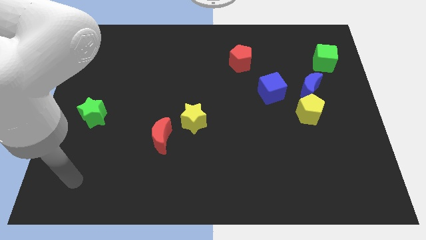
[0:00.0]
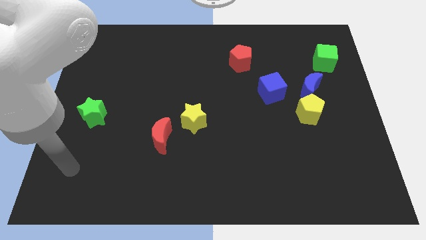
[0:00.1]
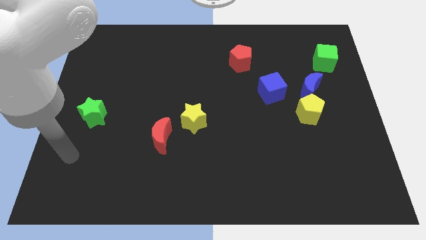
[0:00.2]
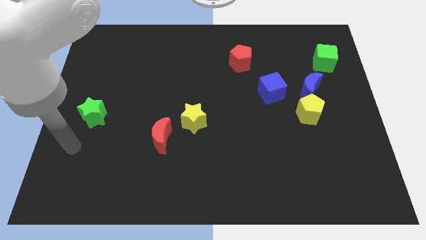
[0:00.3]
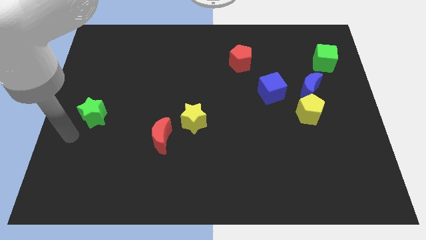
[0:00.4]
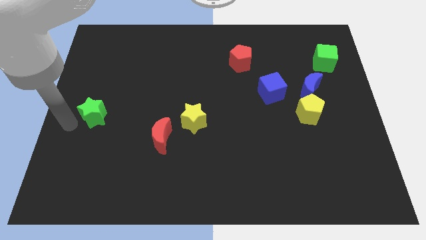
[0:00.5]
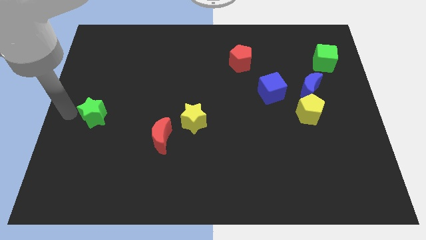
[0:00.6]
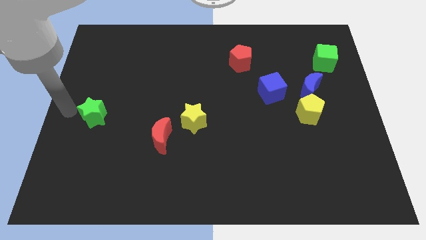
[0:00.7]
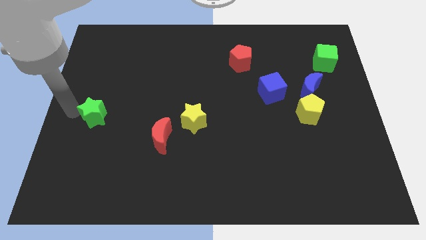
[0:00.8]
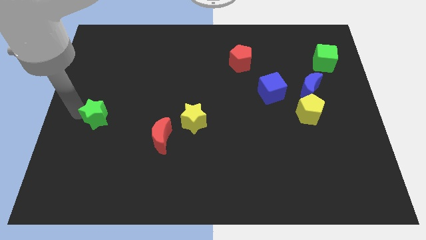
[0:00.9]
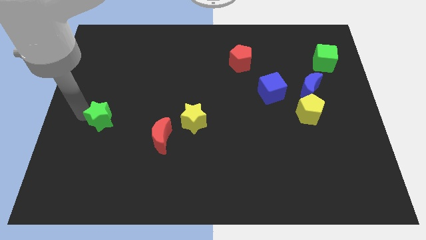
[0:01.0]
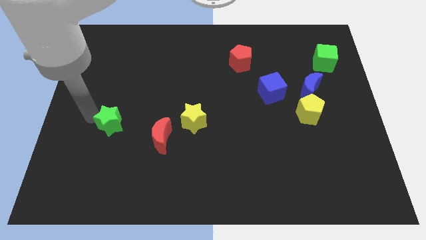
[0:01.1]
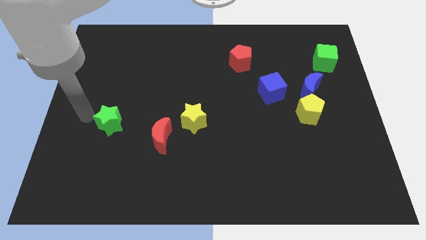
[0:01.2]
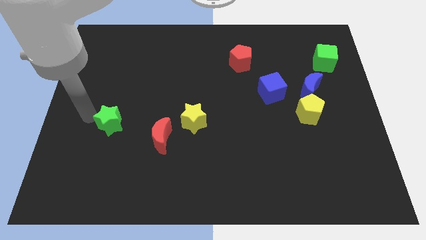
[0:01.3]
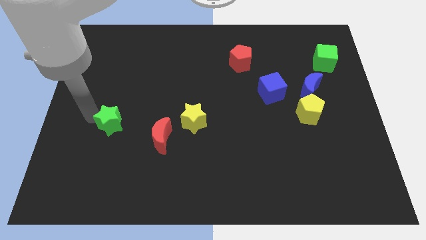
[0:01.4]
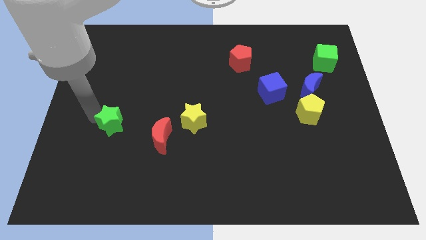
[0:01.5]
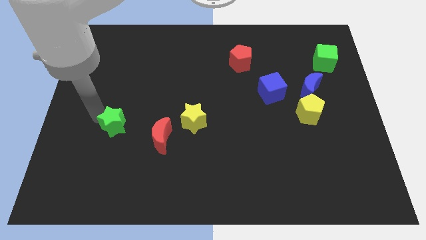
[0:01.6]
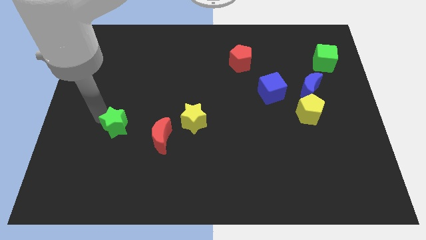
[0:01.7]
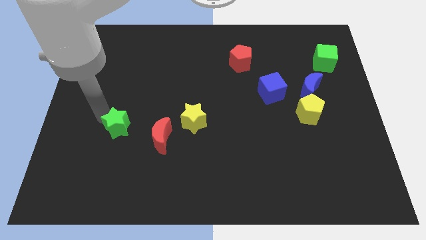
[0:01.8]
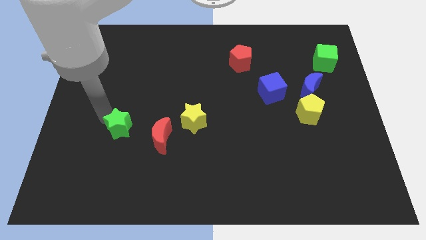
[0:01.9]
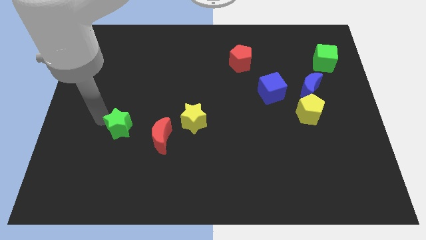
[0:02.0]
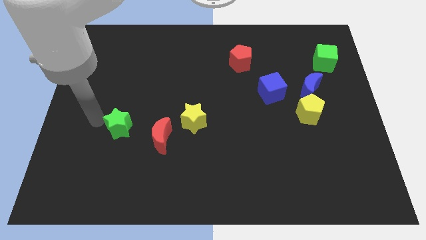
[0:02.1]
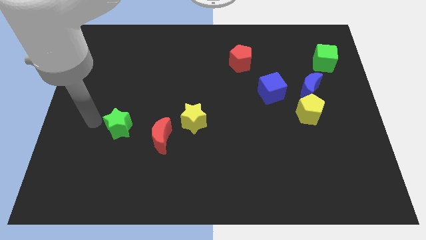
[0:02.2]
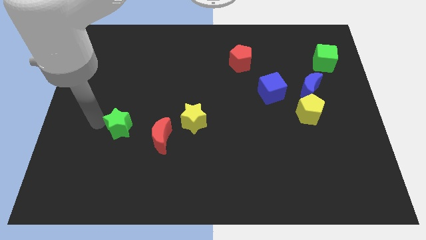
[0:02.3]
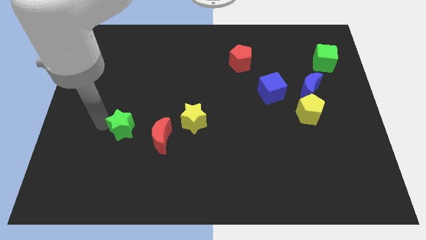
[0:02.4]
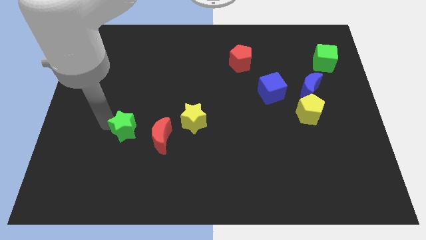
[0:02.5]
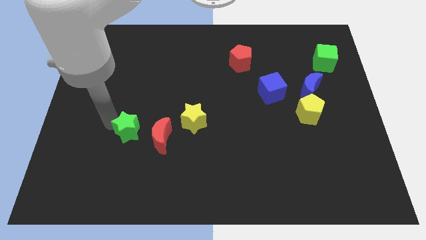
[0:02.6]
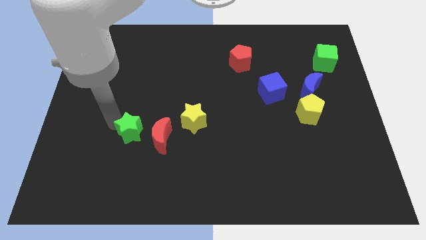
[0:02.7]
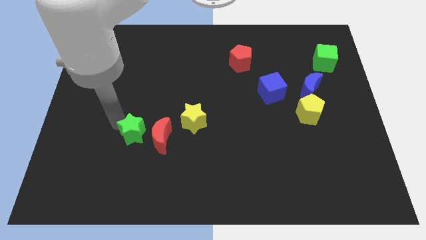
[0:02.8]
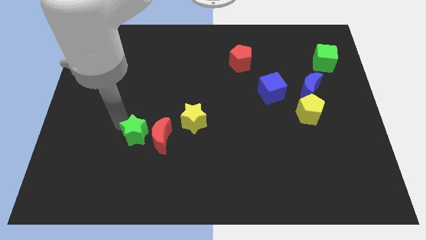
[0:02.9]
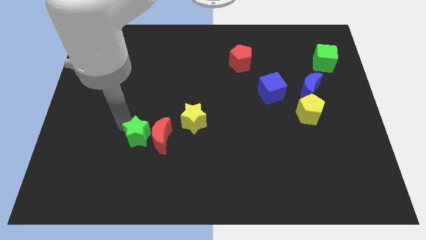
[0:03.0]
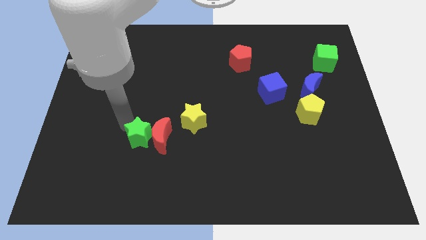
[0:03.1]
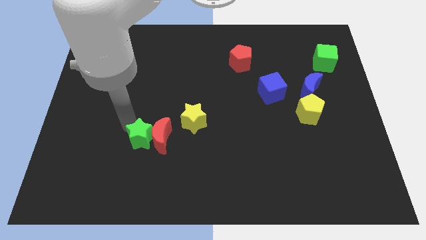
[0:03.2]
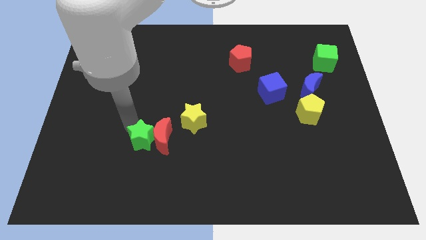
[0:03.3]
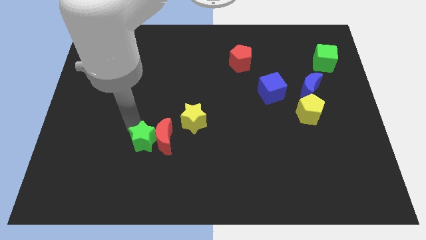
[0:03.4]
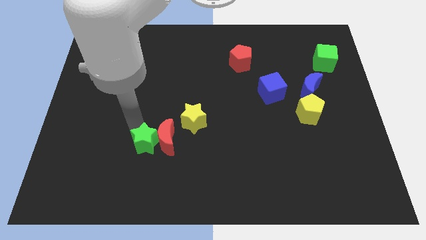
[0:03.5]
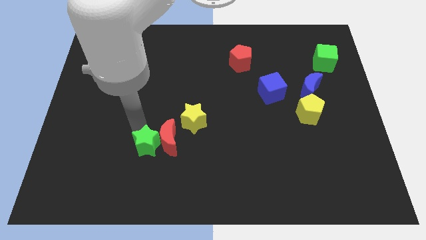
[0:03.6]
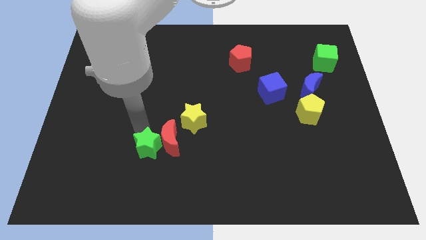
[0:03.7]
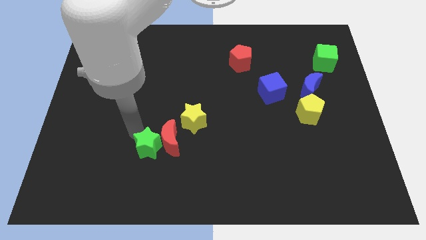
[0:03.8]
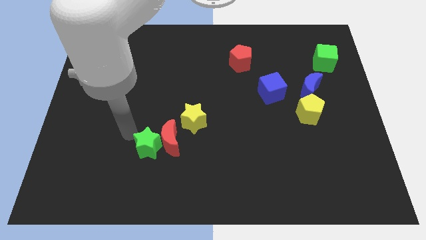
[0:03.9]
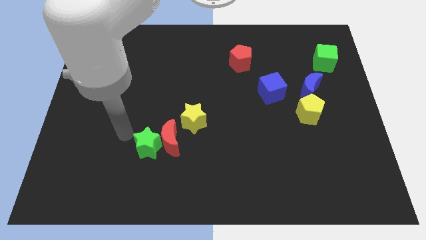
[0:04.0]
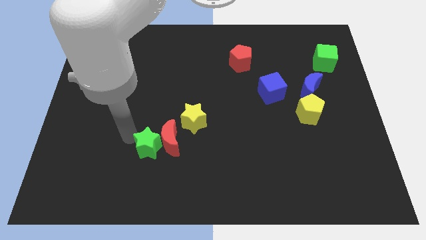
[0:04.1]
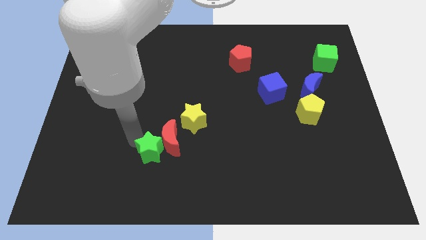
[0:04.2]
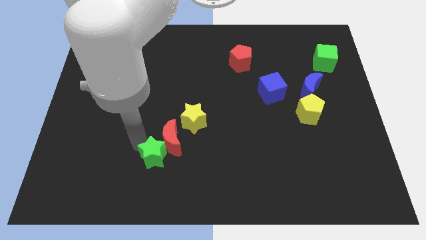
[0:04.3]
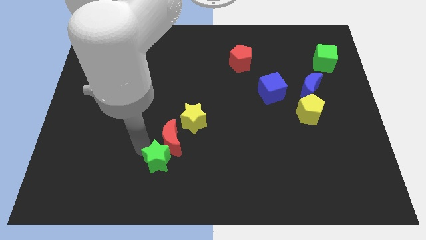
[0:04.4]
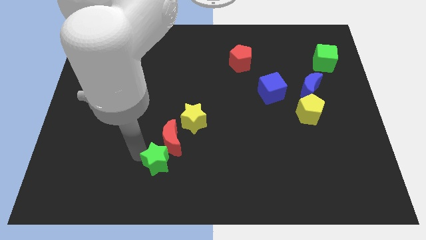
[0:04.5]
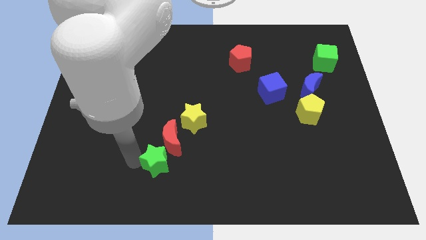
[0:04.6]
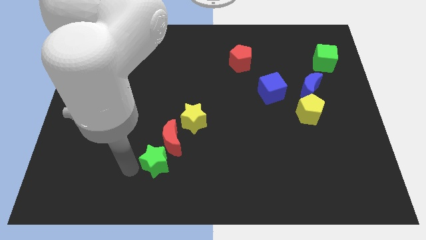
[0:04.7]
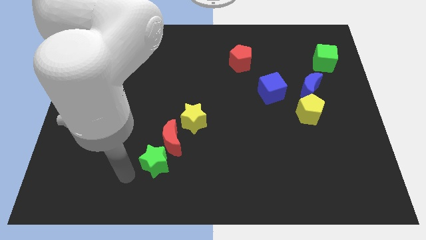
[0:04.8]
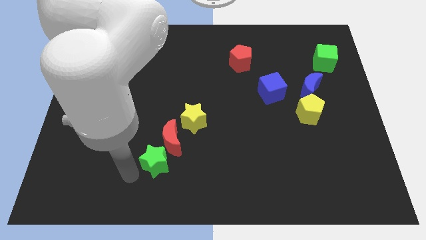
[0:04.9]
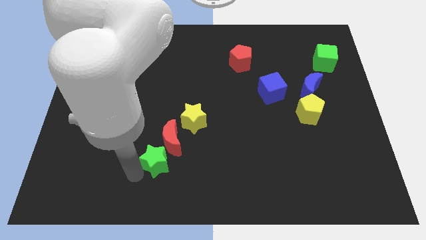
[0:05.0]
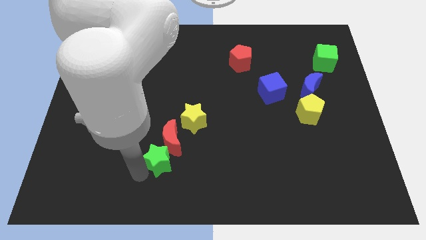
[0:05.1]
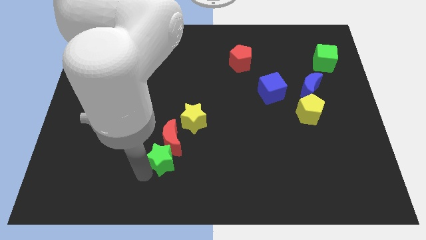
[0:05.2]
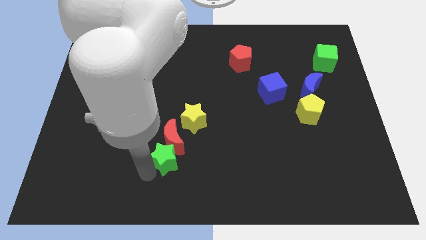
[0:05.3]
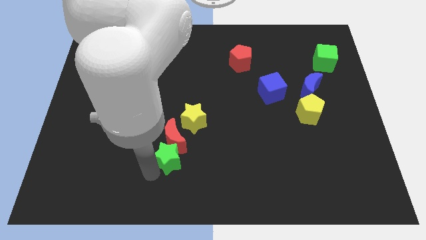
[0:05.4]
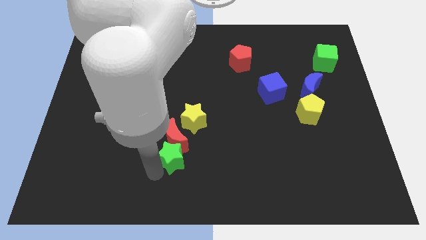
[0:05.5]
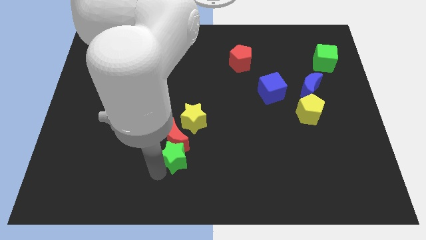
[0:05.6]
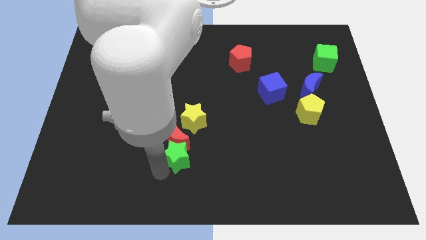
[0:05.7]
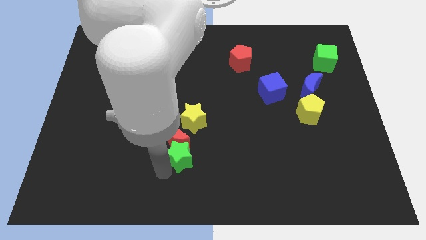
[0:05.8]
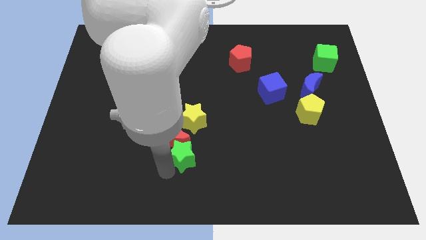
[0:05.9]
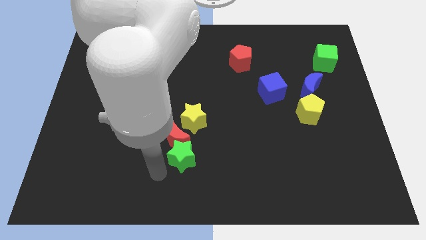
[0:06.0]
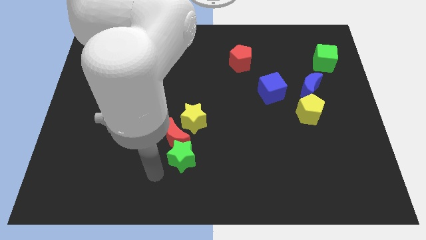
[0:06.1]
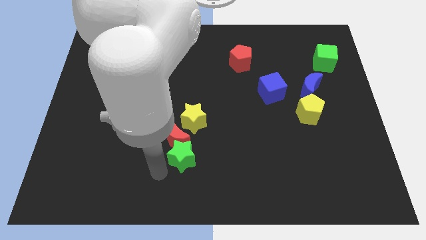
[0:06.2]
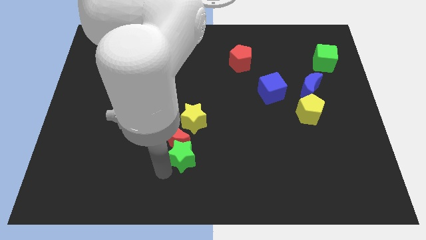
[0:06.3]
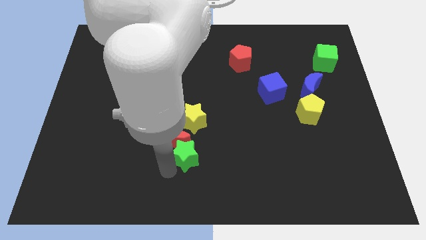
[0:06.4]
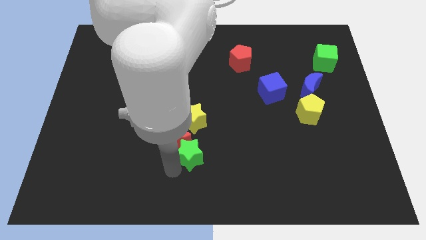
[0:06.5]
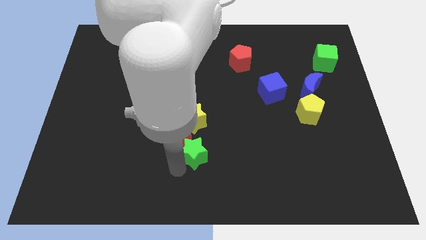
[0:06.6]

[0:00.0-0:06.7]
push the green star right of the red moon

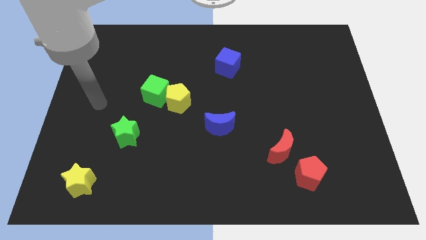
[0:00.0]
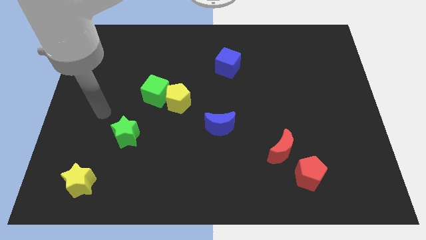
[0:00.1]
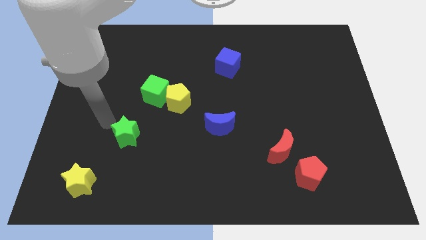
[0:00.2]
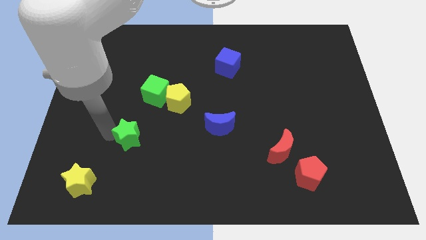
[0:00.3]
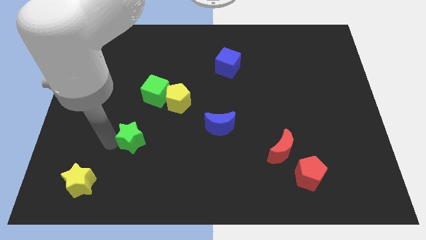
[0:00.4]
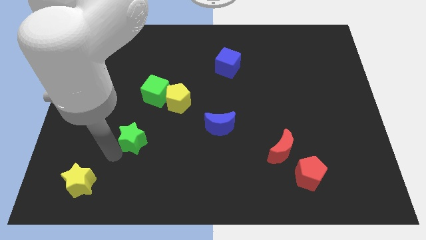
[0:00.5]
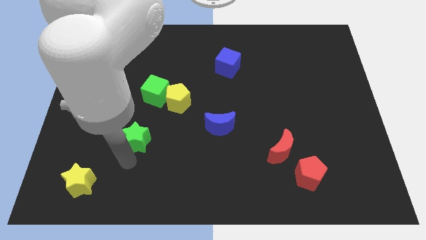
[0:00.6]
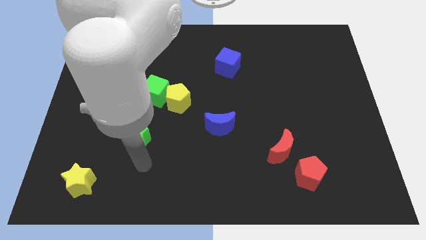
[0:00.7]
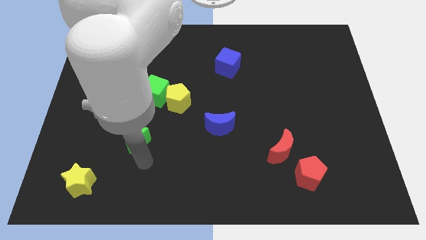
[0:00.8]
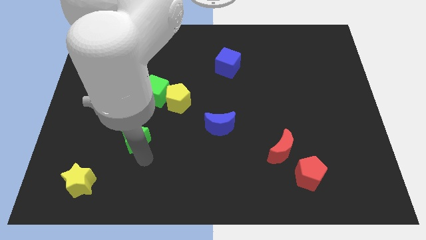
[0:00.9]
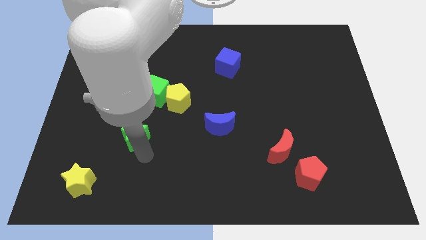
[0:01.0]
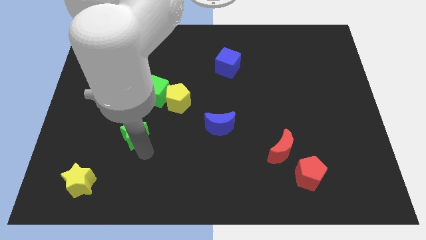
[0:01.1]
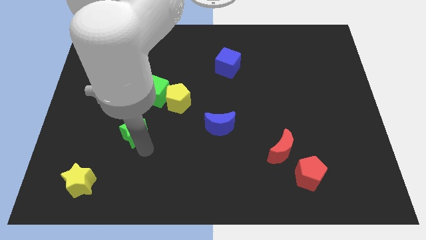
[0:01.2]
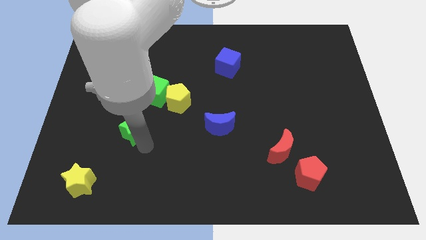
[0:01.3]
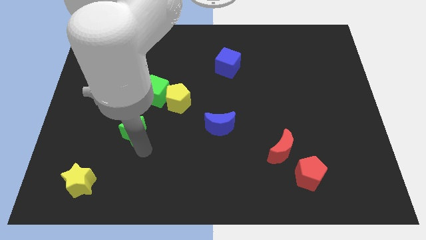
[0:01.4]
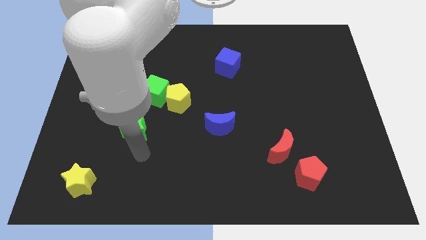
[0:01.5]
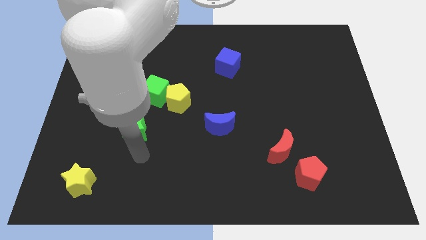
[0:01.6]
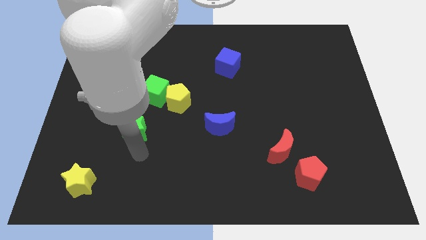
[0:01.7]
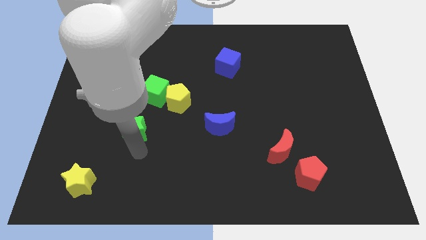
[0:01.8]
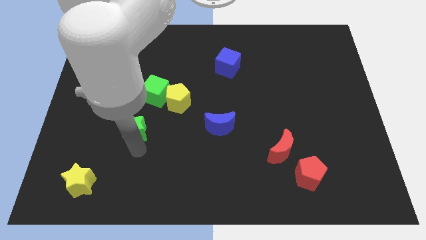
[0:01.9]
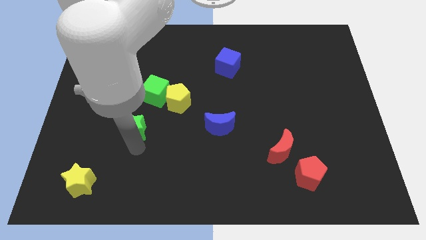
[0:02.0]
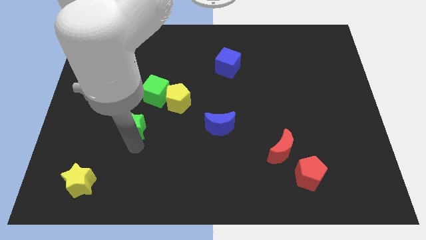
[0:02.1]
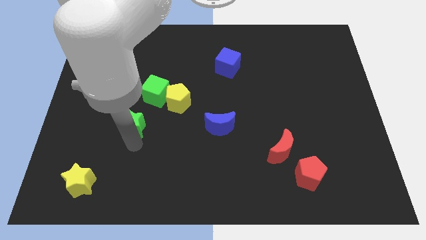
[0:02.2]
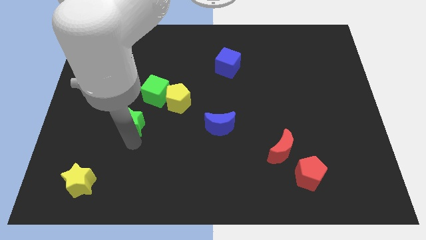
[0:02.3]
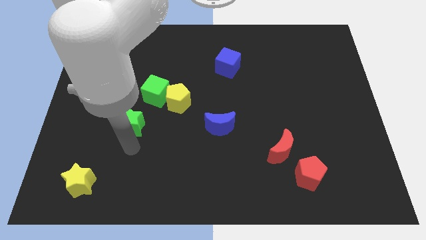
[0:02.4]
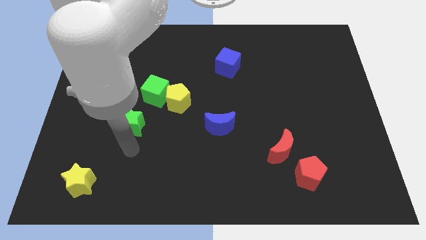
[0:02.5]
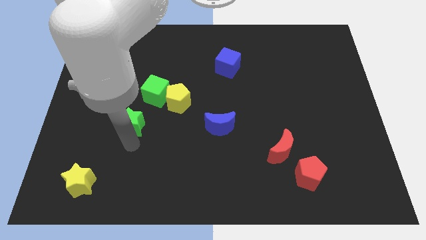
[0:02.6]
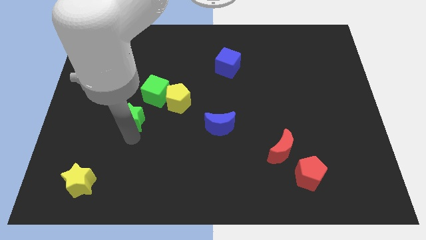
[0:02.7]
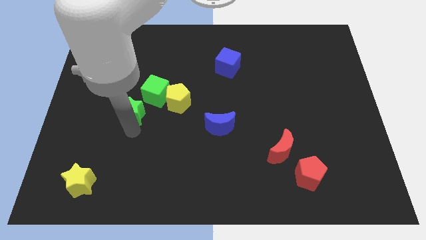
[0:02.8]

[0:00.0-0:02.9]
move the green star just left of the yellow pentagon
